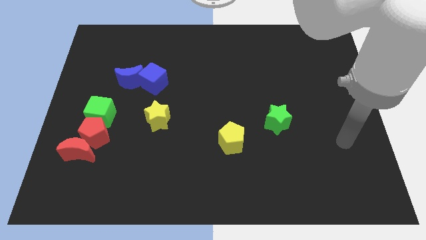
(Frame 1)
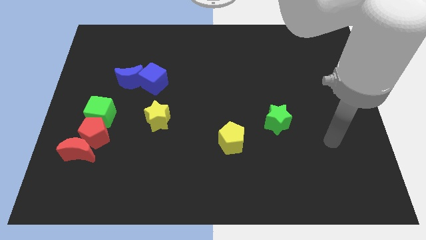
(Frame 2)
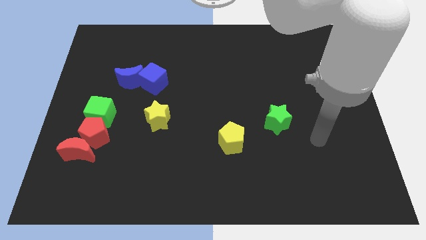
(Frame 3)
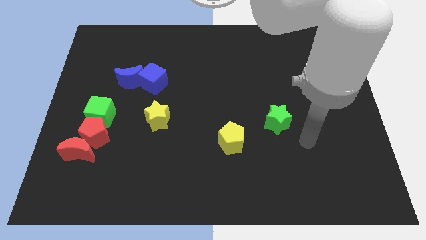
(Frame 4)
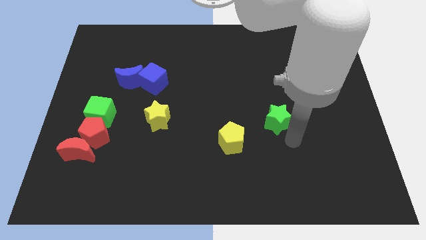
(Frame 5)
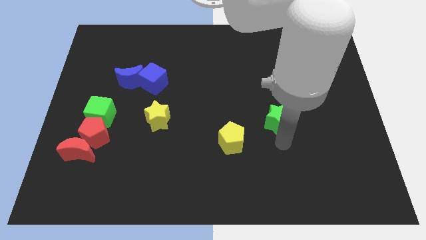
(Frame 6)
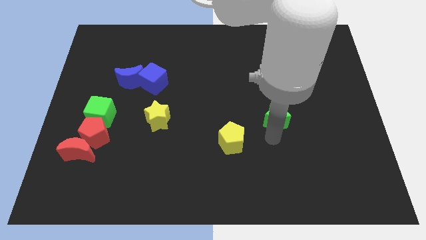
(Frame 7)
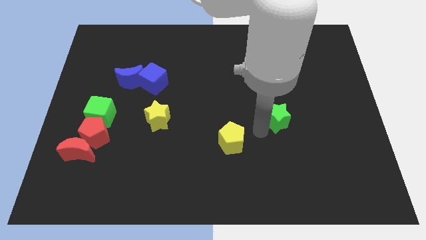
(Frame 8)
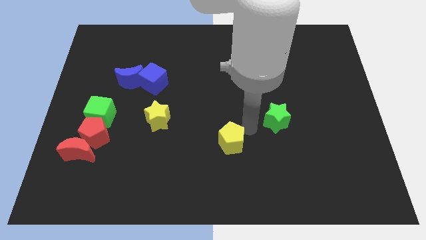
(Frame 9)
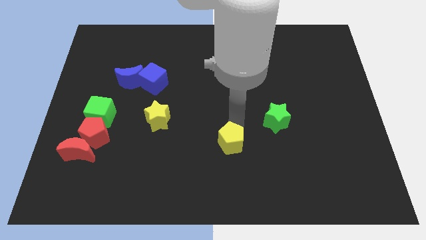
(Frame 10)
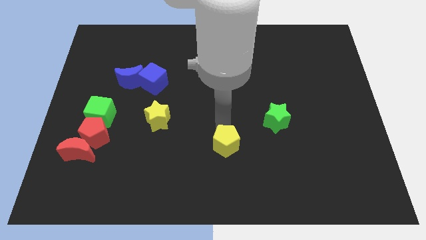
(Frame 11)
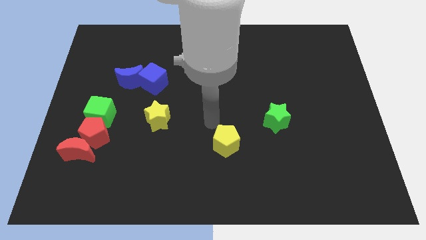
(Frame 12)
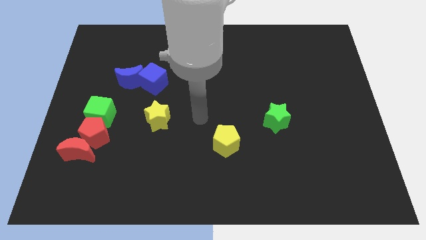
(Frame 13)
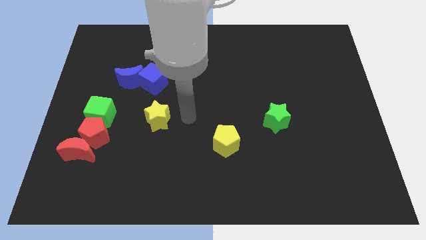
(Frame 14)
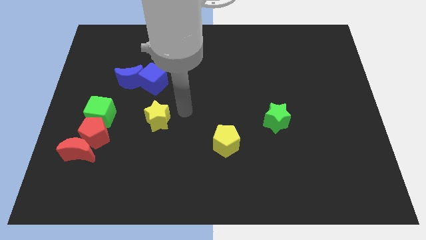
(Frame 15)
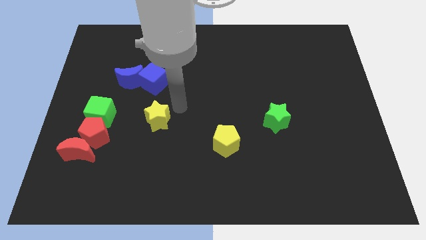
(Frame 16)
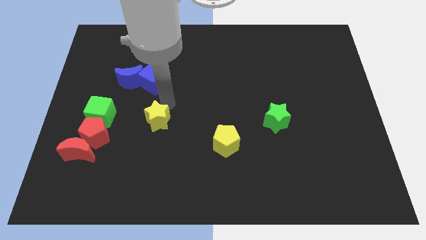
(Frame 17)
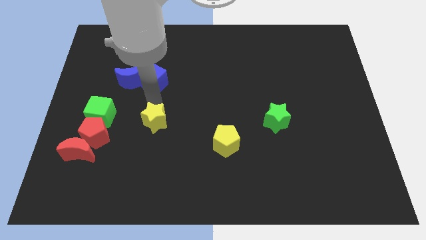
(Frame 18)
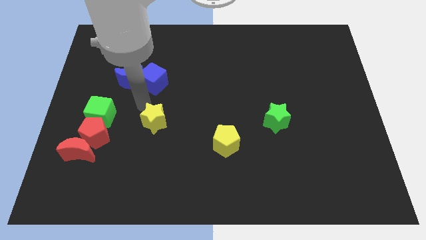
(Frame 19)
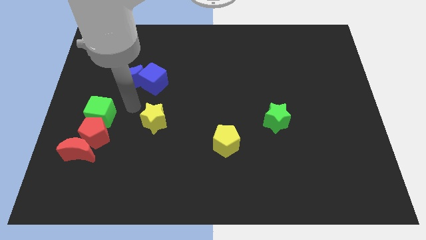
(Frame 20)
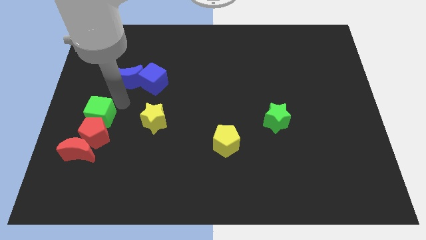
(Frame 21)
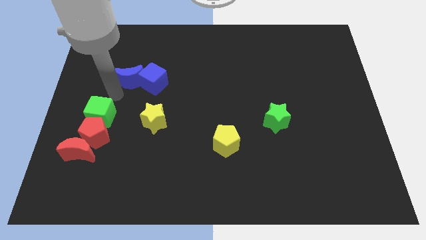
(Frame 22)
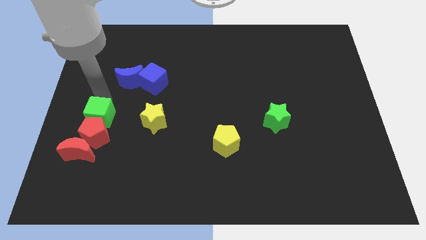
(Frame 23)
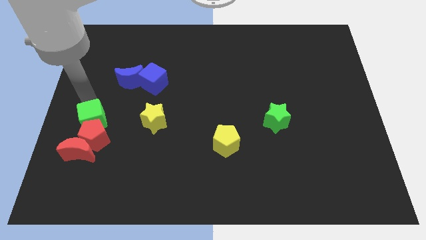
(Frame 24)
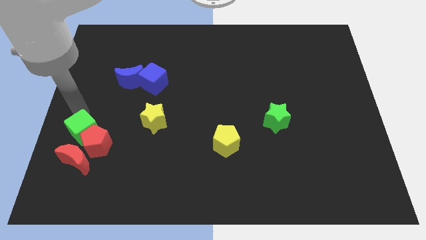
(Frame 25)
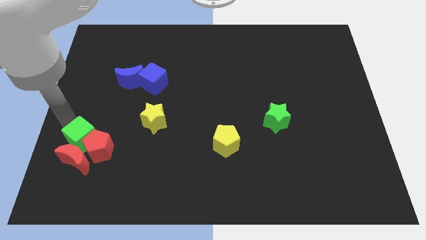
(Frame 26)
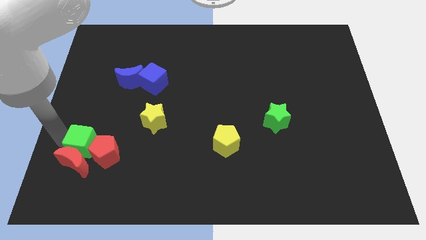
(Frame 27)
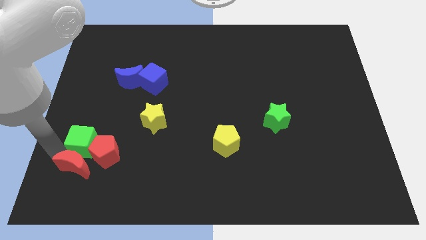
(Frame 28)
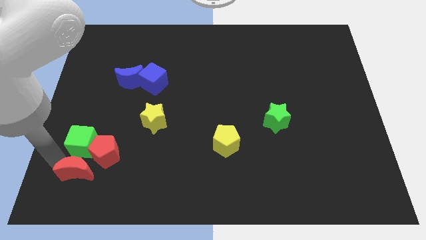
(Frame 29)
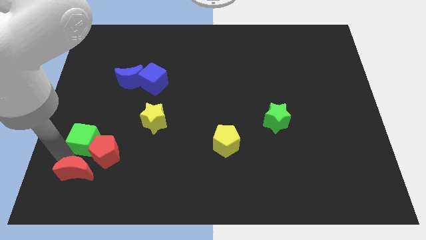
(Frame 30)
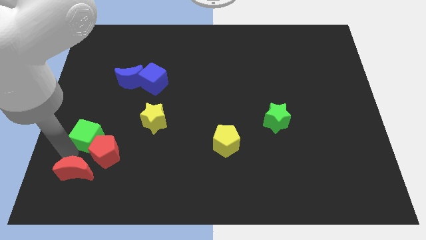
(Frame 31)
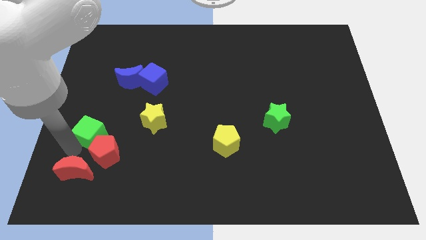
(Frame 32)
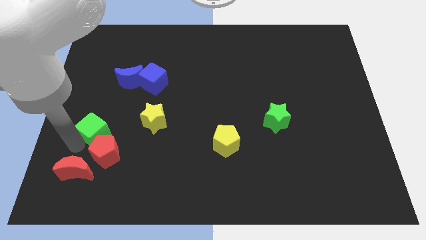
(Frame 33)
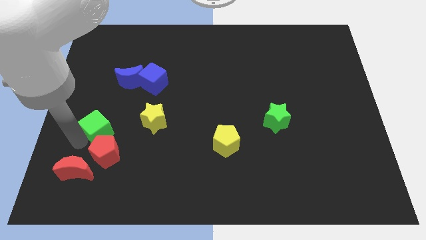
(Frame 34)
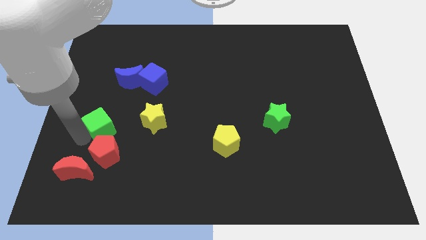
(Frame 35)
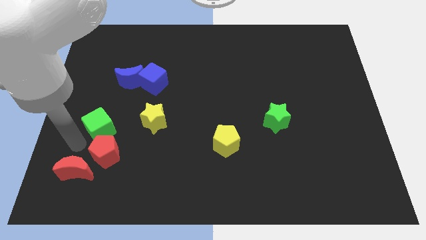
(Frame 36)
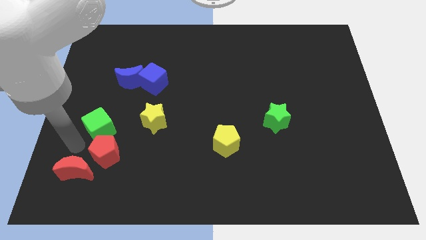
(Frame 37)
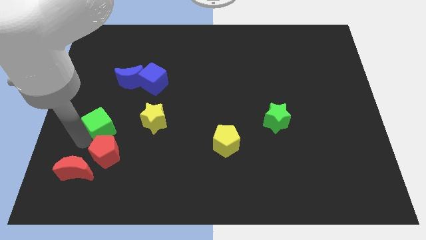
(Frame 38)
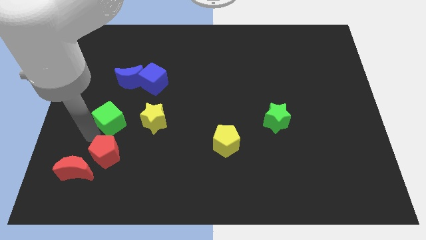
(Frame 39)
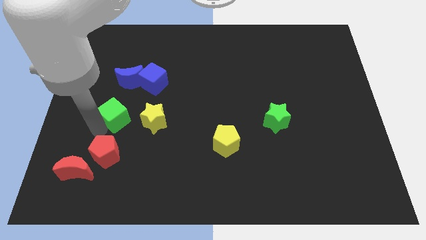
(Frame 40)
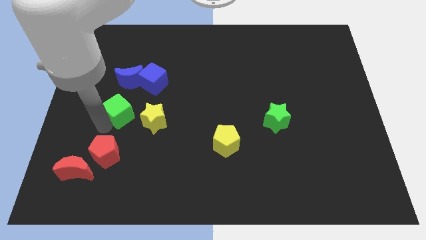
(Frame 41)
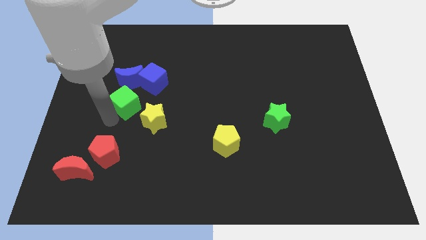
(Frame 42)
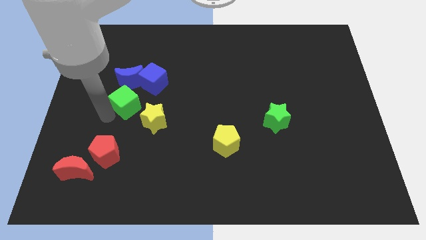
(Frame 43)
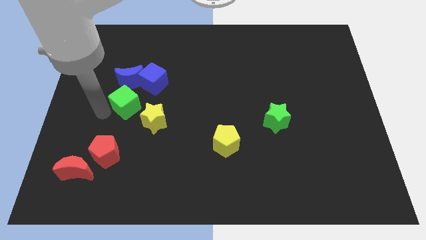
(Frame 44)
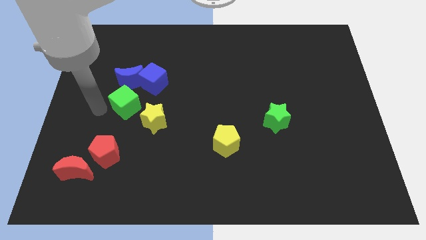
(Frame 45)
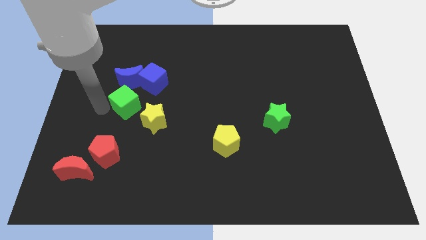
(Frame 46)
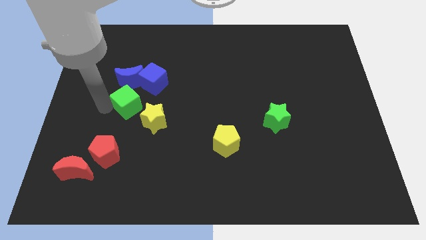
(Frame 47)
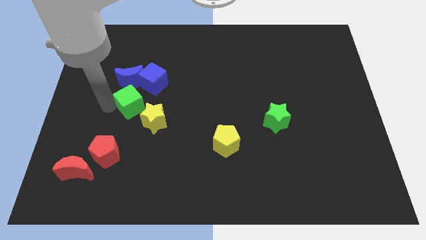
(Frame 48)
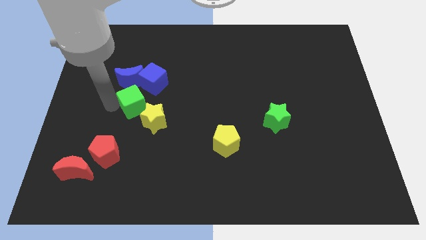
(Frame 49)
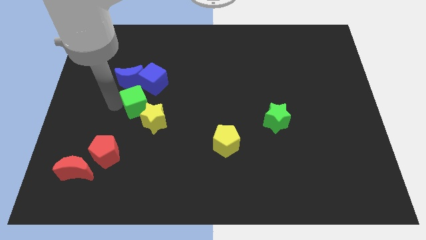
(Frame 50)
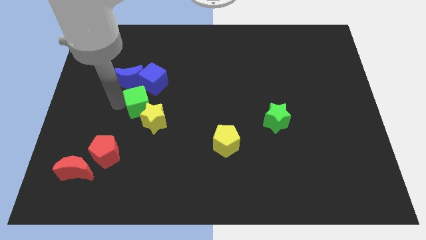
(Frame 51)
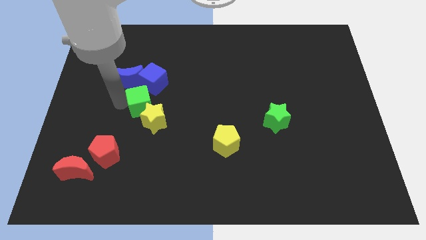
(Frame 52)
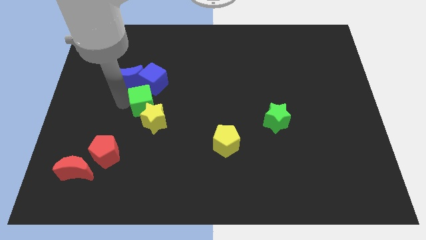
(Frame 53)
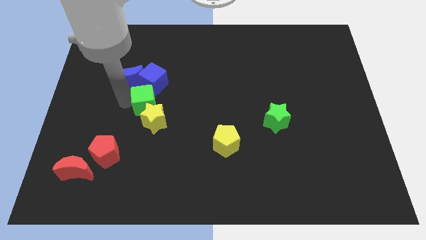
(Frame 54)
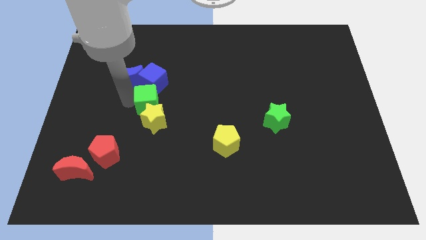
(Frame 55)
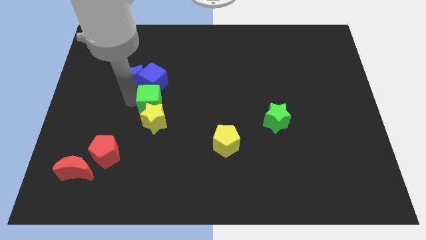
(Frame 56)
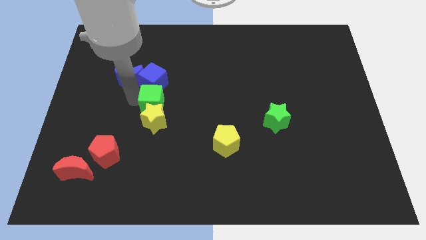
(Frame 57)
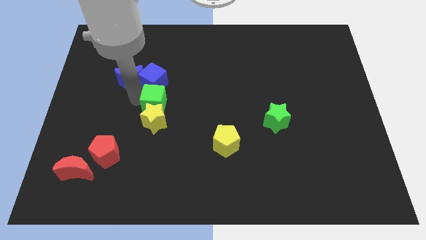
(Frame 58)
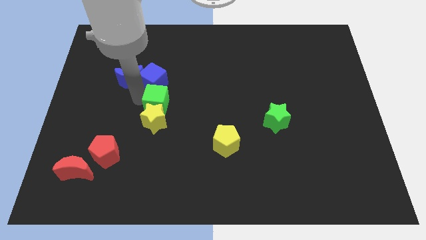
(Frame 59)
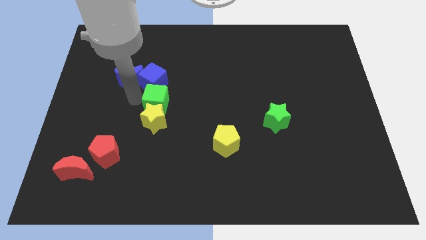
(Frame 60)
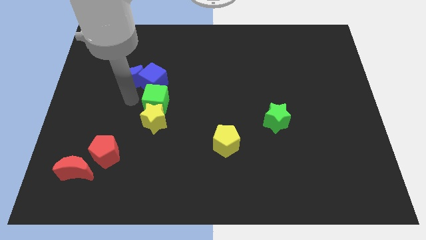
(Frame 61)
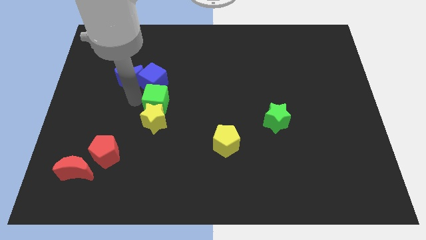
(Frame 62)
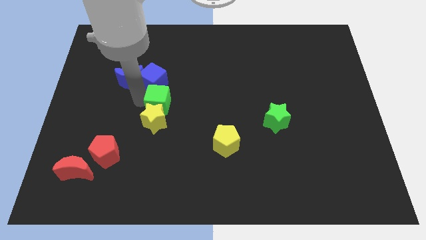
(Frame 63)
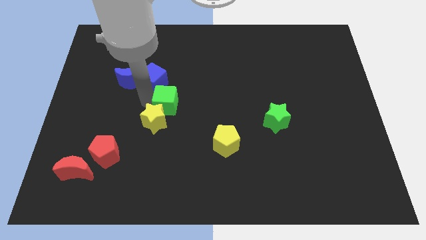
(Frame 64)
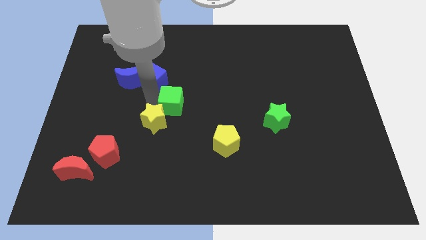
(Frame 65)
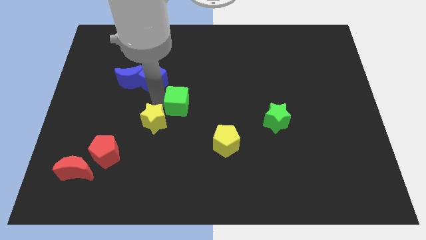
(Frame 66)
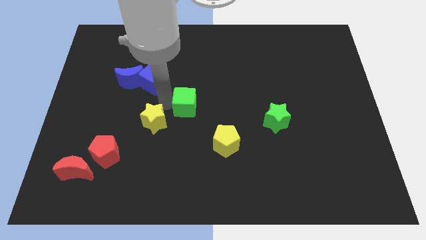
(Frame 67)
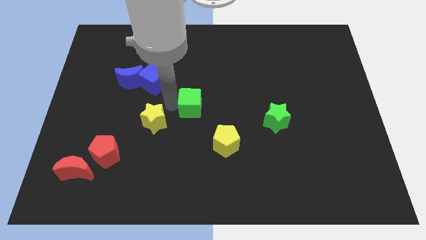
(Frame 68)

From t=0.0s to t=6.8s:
move the green cube right

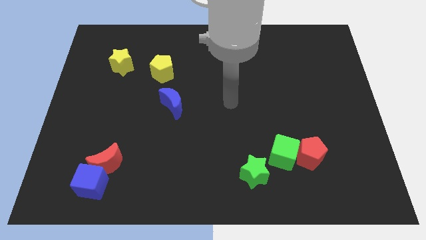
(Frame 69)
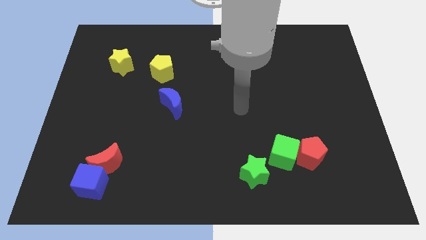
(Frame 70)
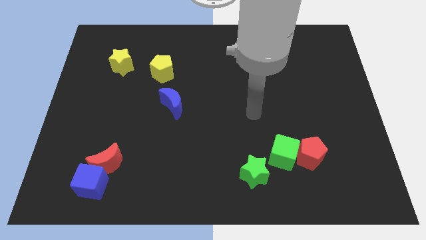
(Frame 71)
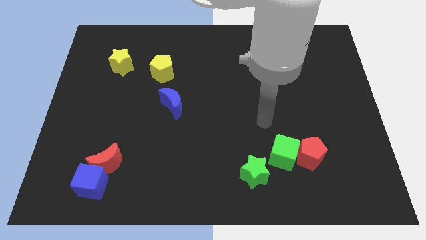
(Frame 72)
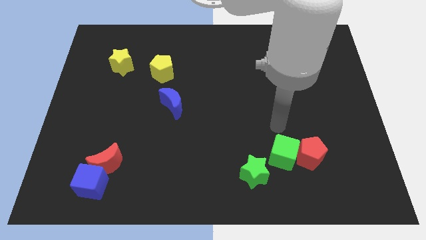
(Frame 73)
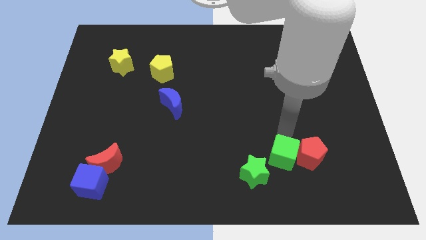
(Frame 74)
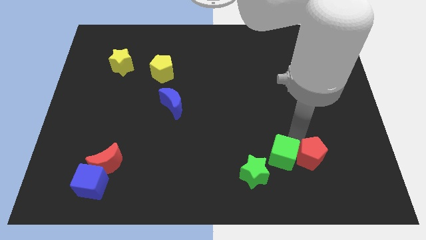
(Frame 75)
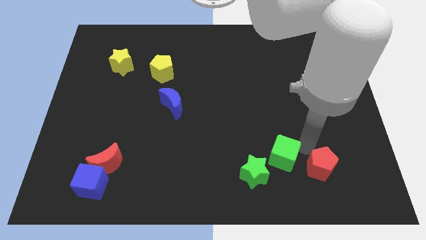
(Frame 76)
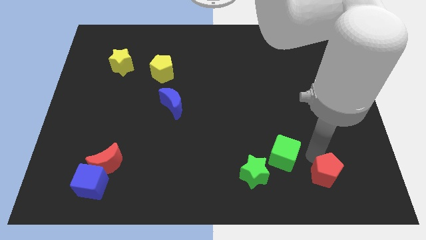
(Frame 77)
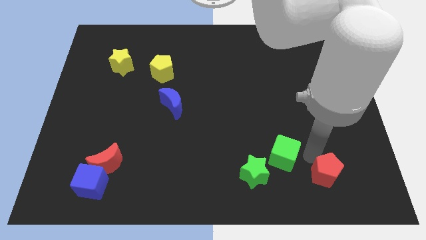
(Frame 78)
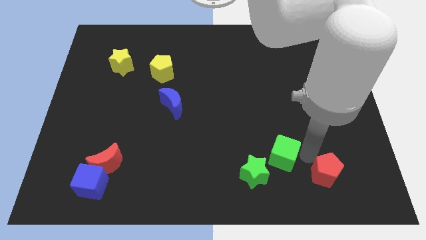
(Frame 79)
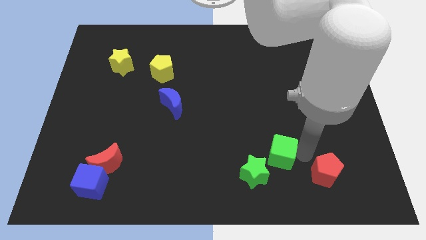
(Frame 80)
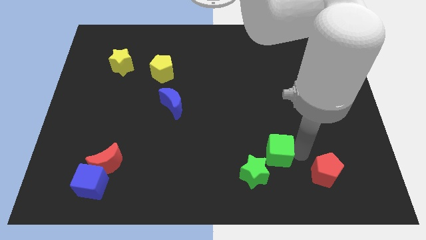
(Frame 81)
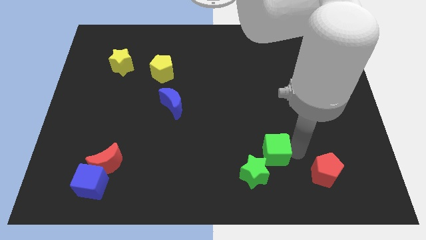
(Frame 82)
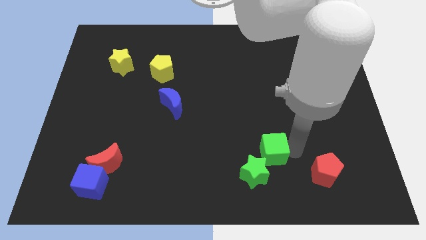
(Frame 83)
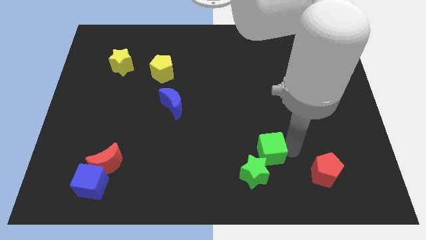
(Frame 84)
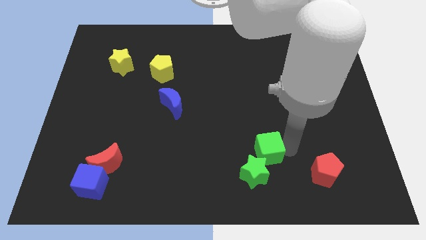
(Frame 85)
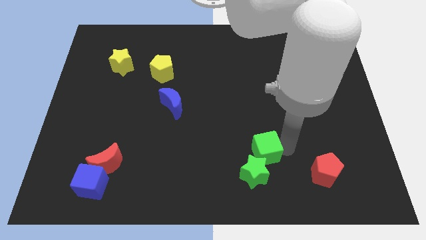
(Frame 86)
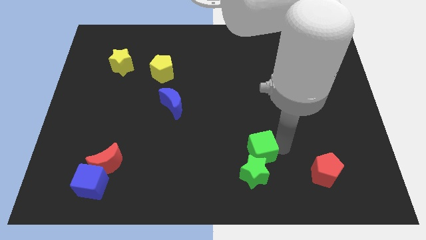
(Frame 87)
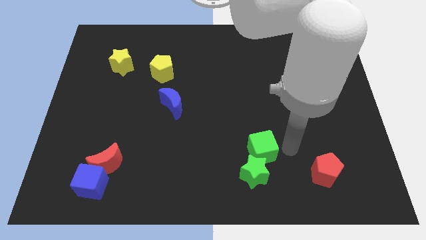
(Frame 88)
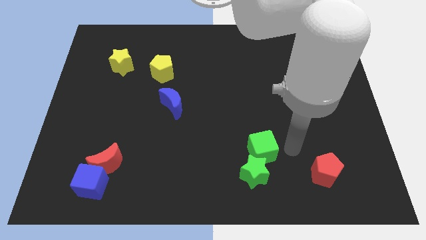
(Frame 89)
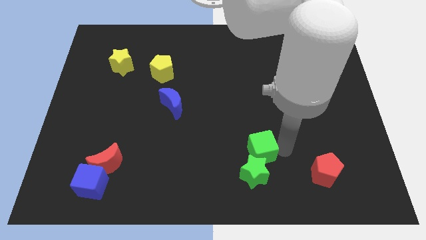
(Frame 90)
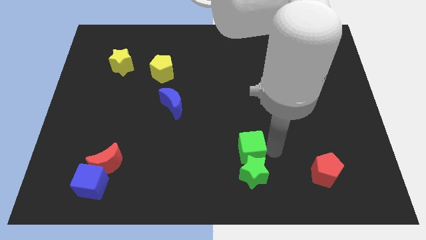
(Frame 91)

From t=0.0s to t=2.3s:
move the green cube a bit to the left
